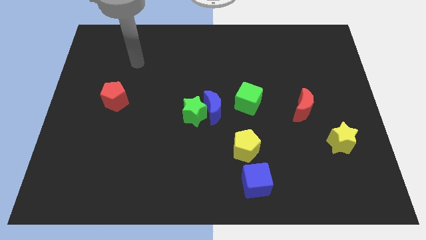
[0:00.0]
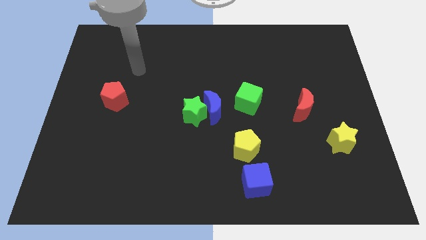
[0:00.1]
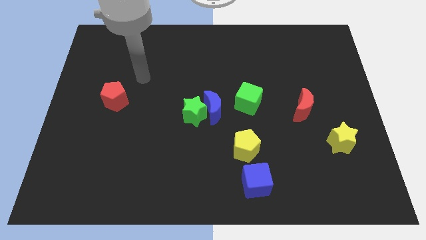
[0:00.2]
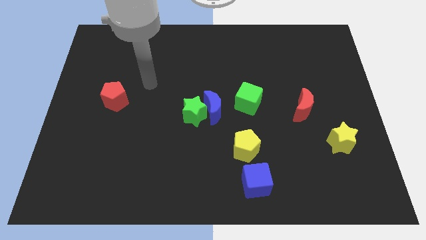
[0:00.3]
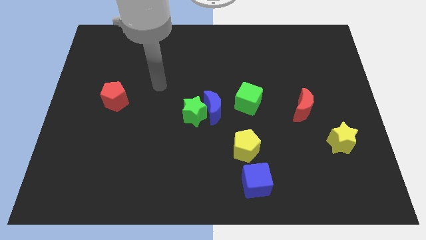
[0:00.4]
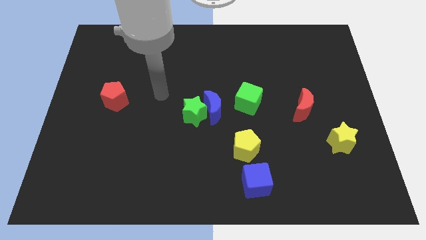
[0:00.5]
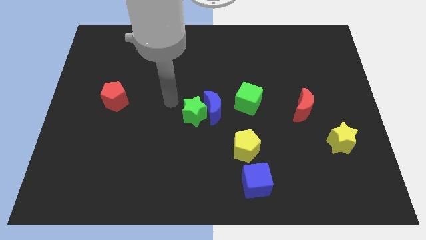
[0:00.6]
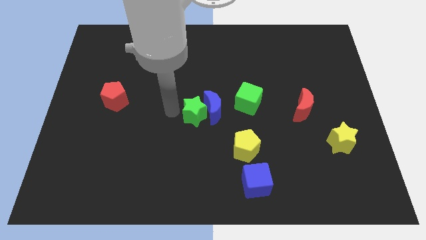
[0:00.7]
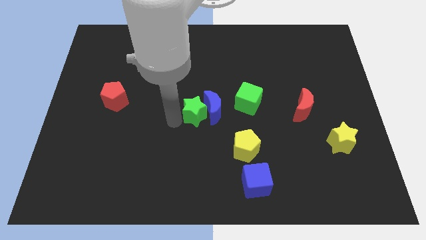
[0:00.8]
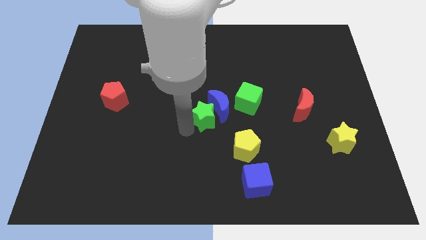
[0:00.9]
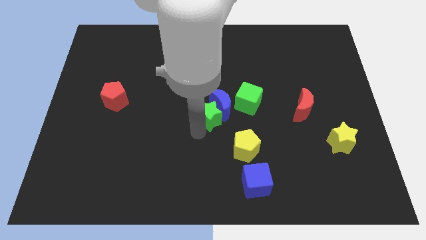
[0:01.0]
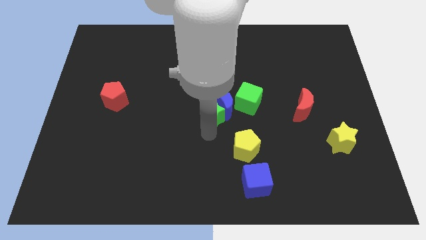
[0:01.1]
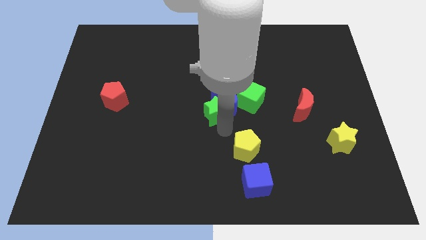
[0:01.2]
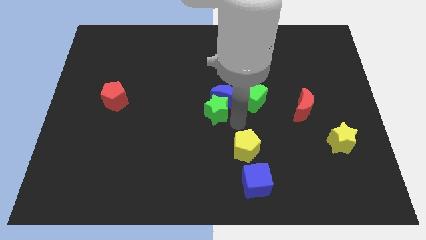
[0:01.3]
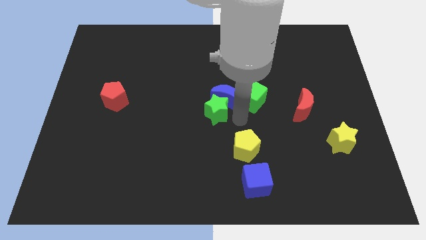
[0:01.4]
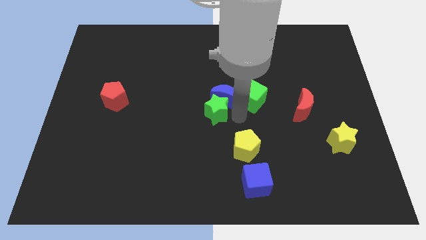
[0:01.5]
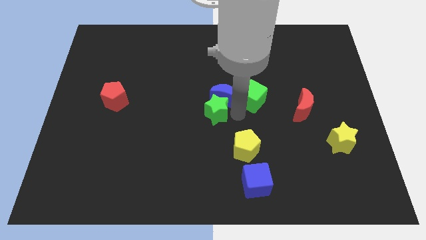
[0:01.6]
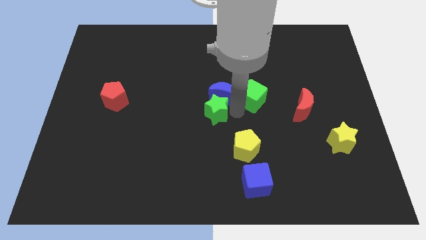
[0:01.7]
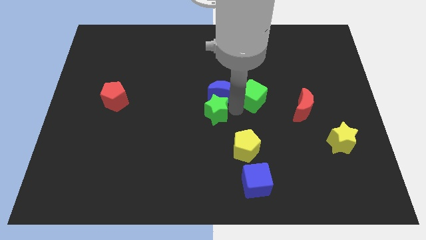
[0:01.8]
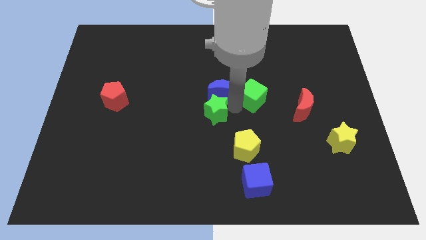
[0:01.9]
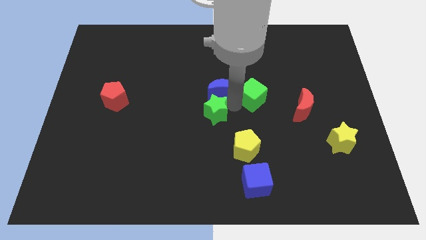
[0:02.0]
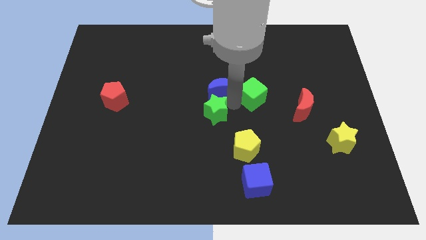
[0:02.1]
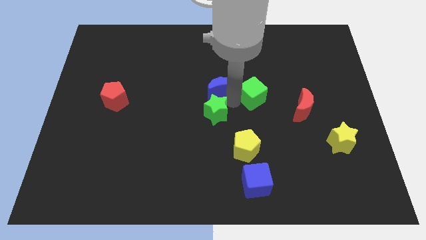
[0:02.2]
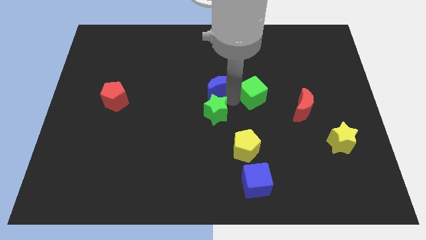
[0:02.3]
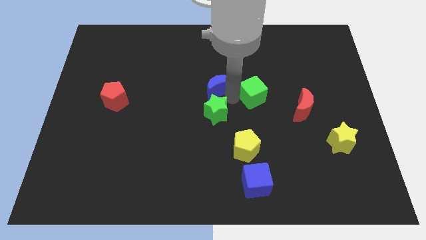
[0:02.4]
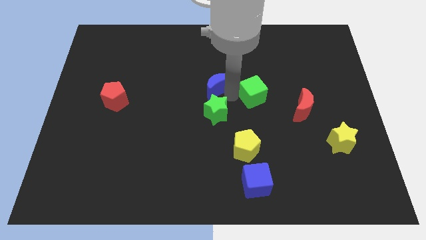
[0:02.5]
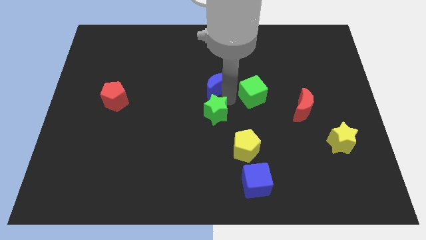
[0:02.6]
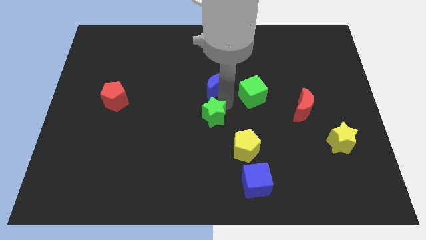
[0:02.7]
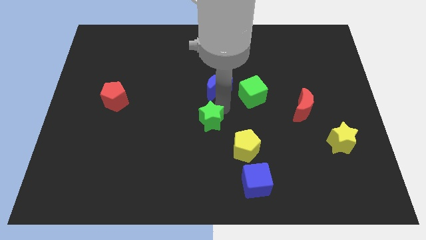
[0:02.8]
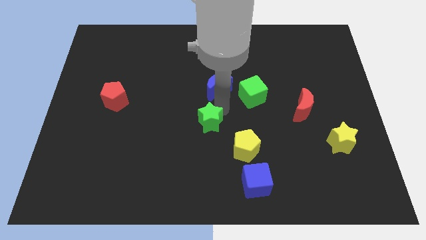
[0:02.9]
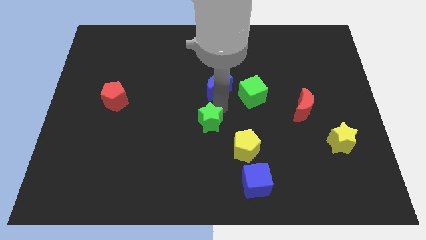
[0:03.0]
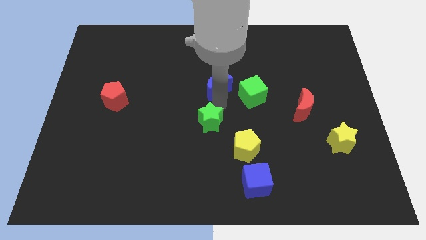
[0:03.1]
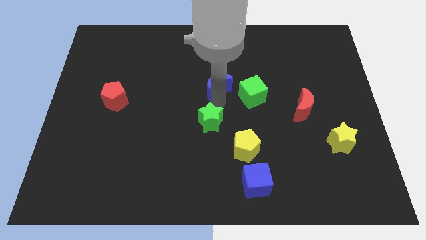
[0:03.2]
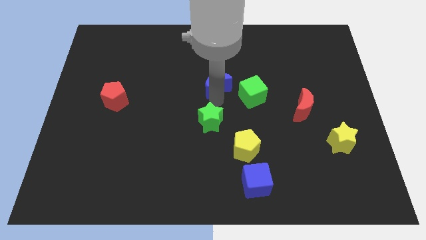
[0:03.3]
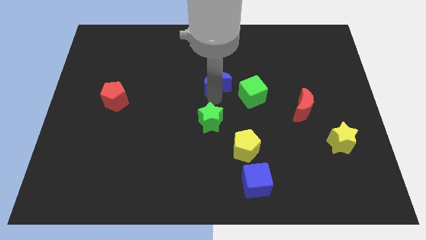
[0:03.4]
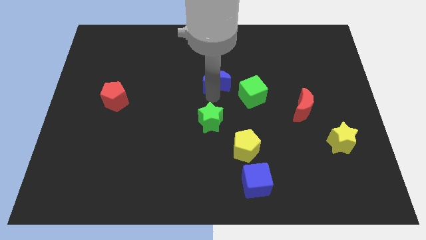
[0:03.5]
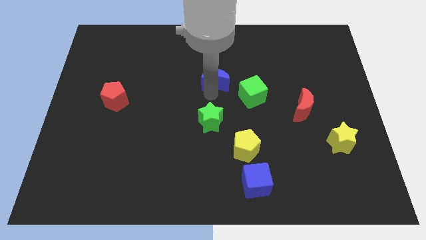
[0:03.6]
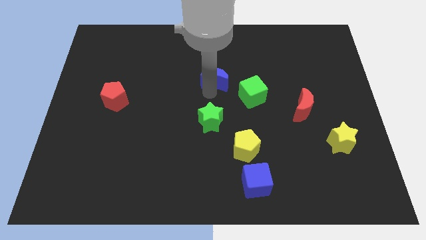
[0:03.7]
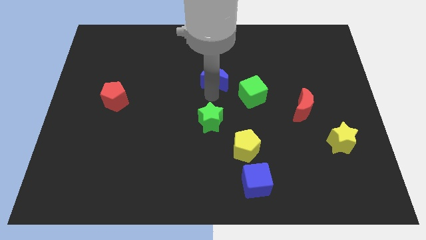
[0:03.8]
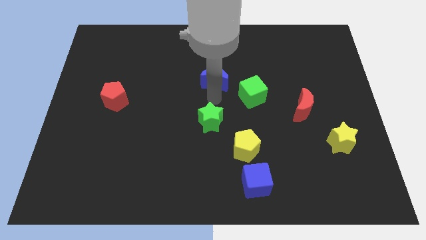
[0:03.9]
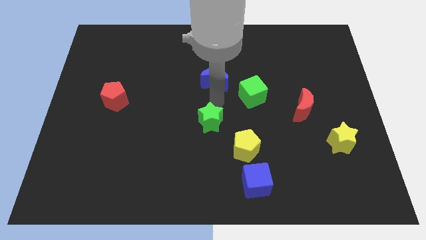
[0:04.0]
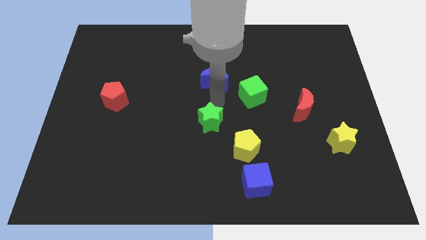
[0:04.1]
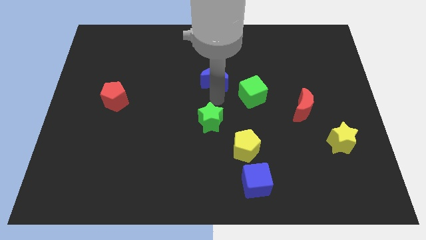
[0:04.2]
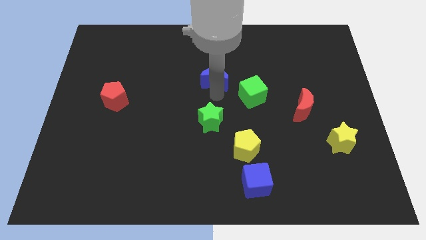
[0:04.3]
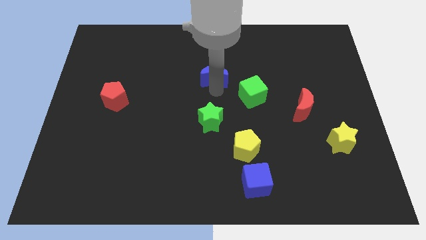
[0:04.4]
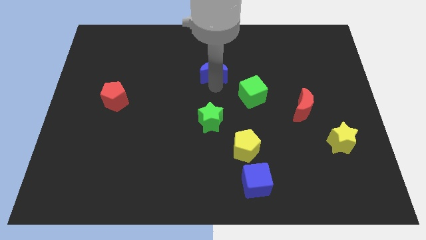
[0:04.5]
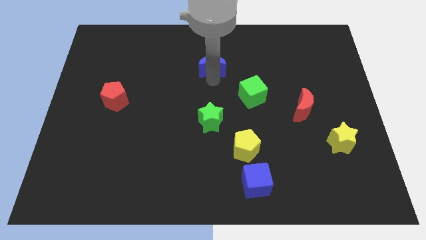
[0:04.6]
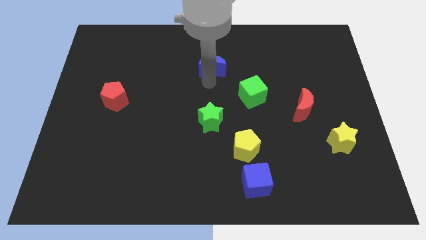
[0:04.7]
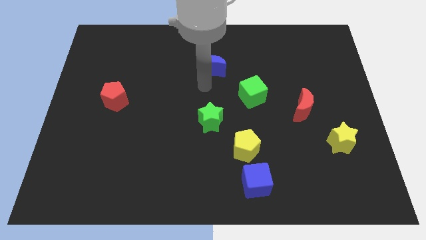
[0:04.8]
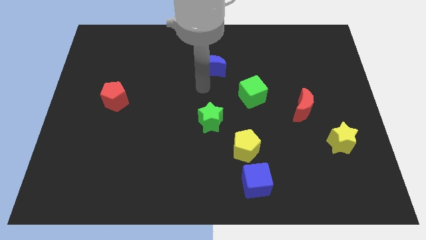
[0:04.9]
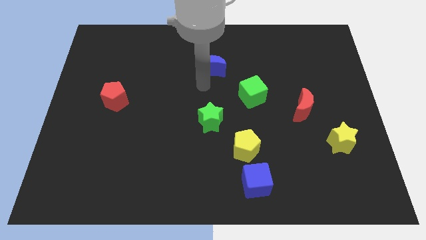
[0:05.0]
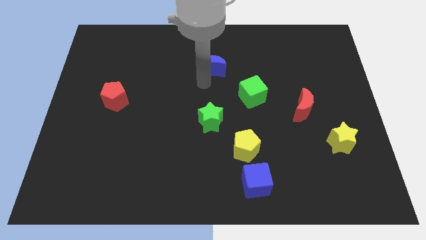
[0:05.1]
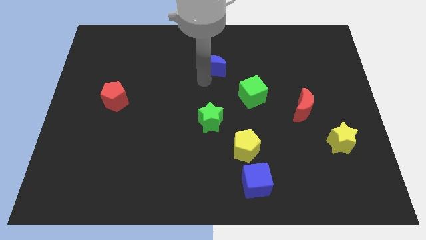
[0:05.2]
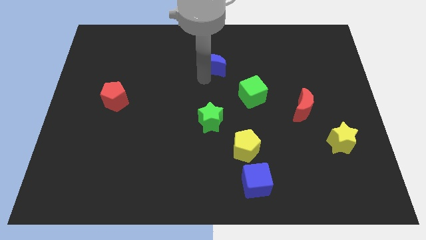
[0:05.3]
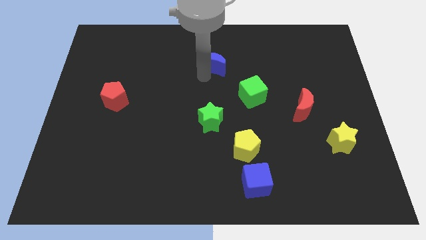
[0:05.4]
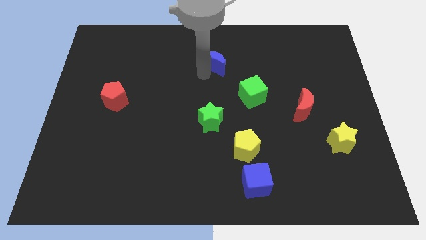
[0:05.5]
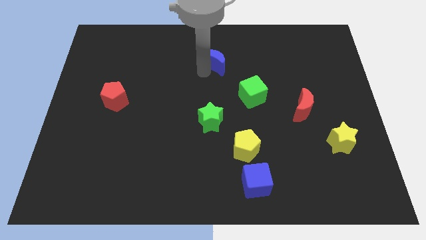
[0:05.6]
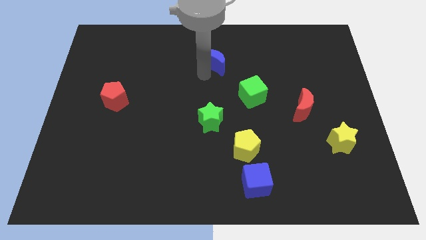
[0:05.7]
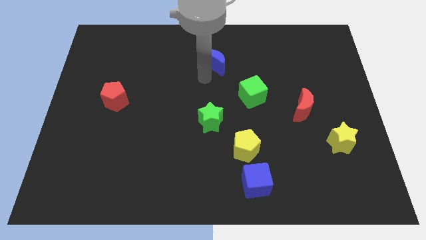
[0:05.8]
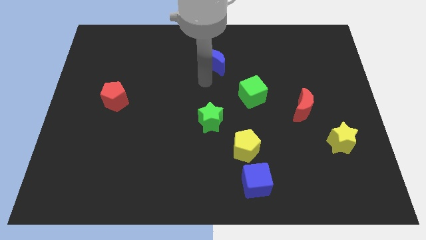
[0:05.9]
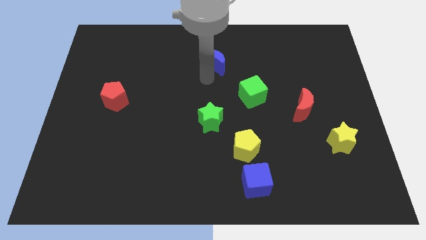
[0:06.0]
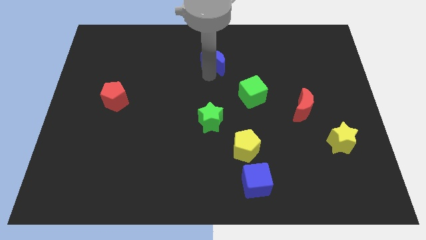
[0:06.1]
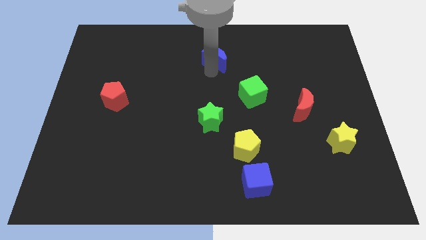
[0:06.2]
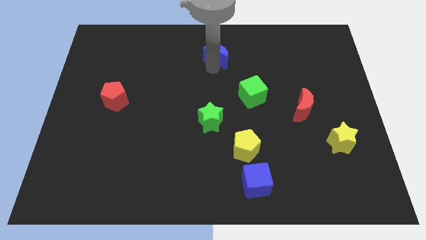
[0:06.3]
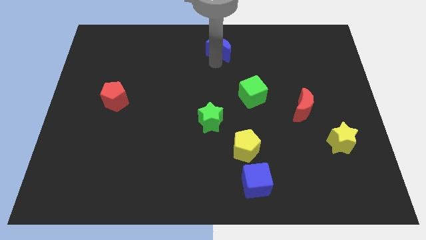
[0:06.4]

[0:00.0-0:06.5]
push the blue moon to the towards your base
